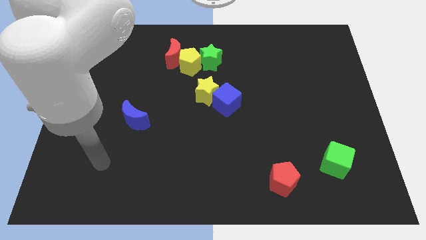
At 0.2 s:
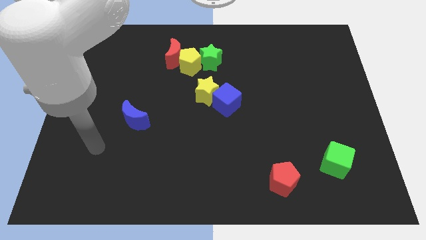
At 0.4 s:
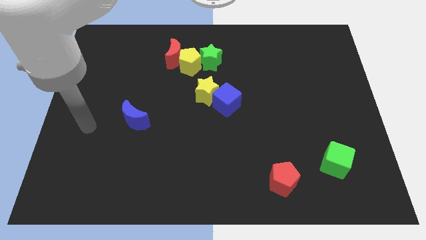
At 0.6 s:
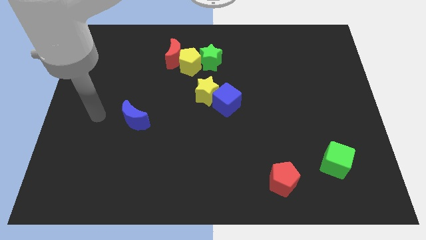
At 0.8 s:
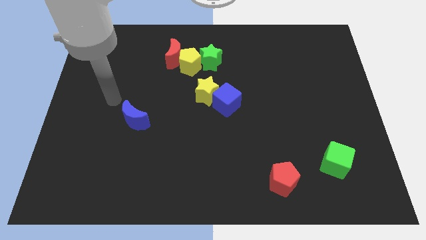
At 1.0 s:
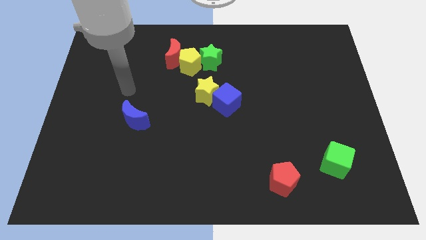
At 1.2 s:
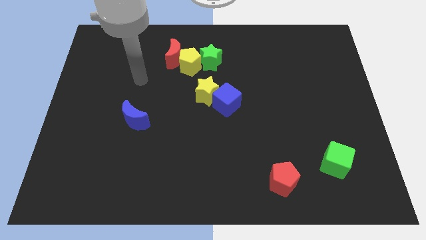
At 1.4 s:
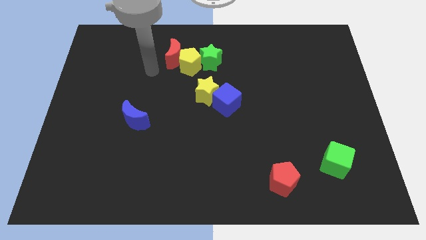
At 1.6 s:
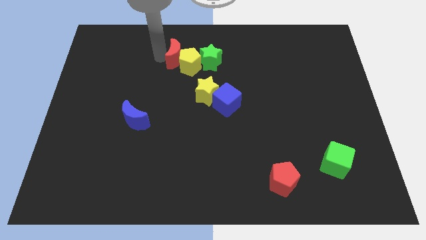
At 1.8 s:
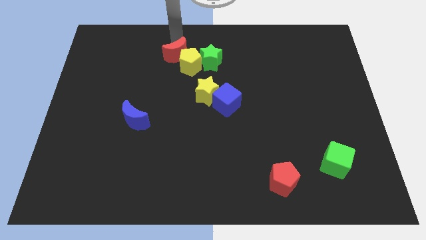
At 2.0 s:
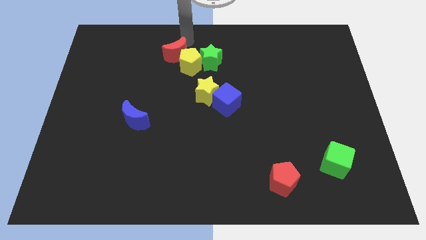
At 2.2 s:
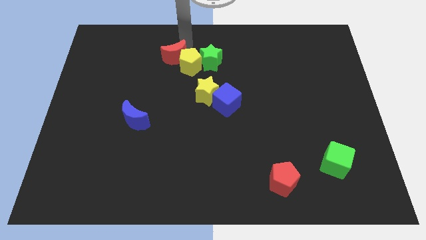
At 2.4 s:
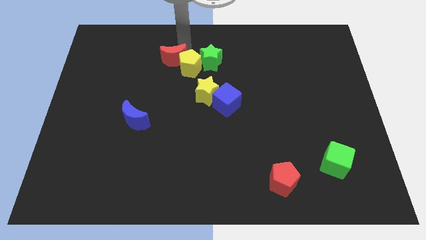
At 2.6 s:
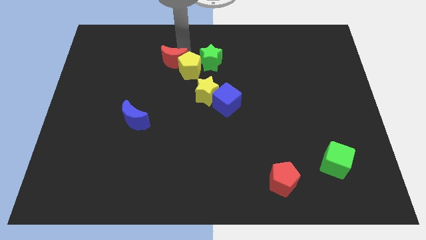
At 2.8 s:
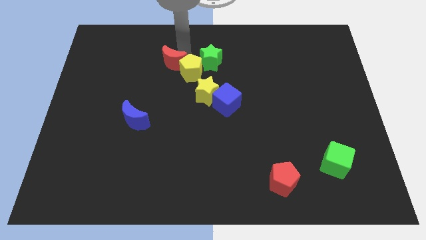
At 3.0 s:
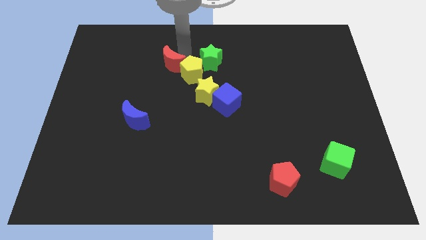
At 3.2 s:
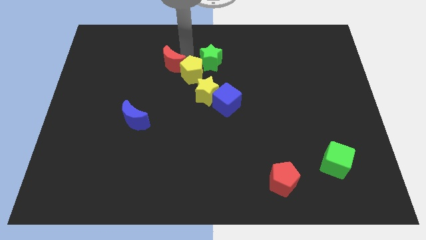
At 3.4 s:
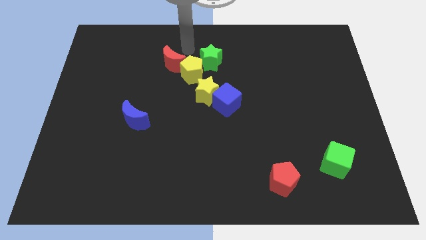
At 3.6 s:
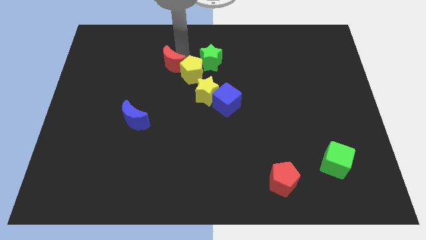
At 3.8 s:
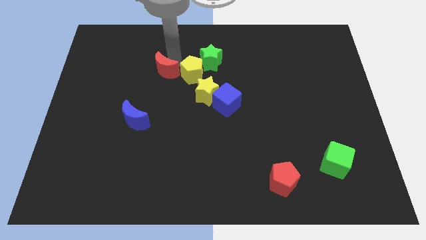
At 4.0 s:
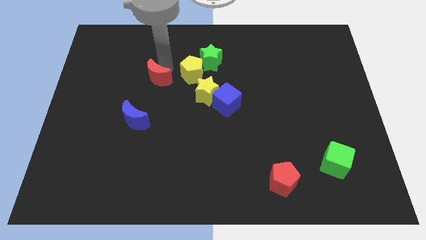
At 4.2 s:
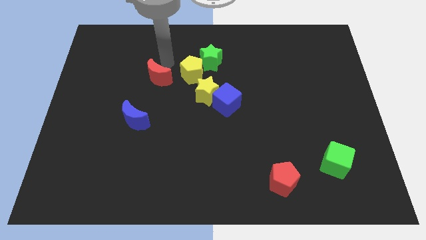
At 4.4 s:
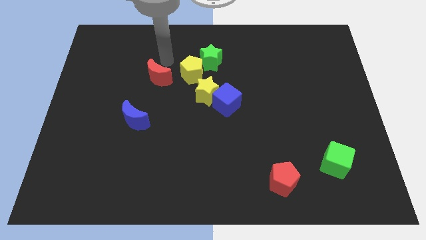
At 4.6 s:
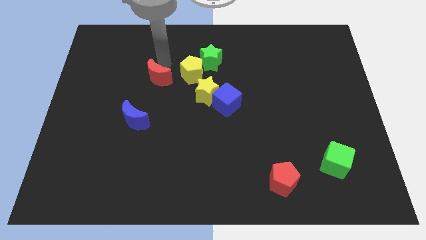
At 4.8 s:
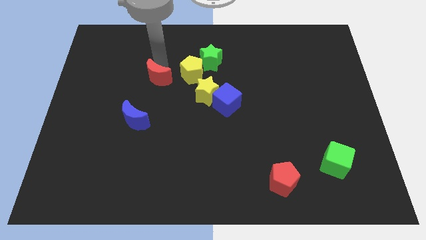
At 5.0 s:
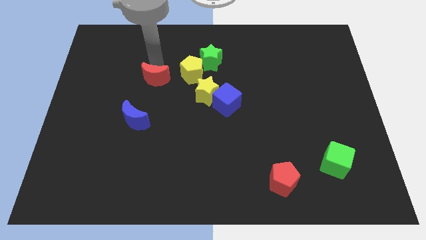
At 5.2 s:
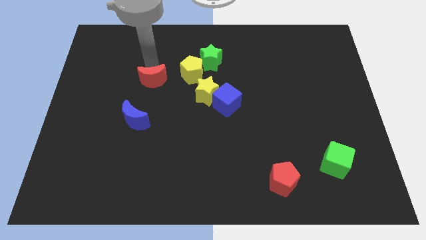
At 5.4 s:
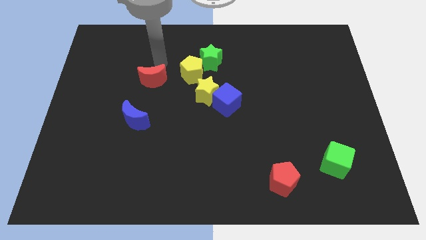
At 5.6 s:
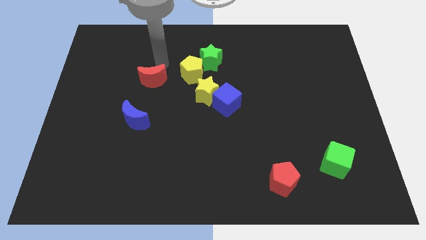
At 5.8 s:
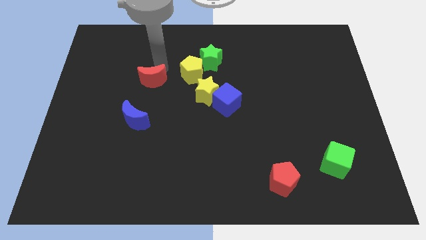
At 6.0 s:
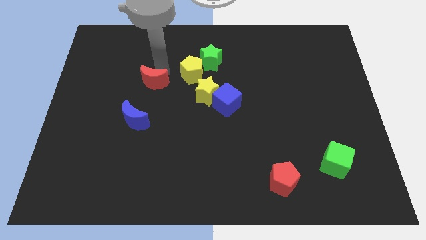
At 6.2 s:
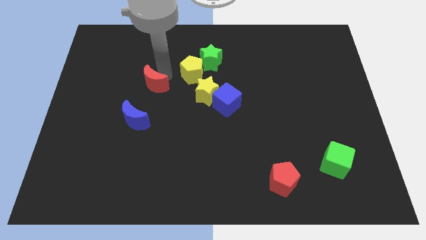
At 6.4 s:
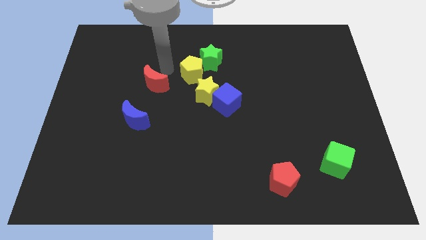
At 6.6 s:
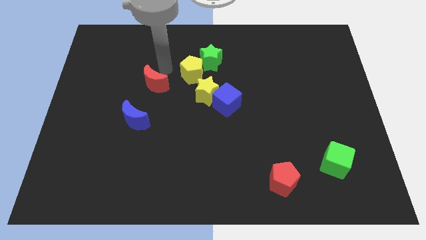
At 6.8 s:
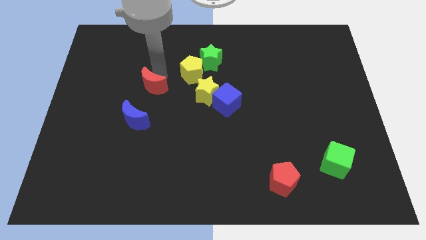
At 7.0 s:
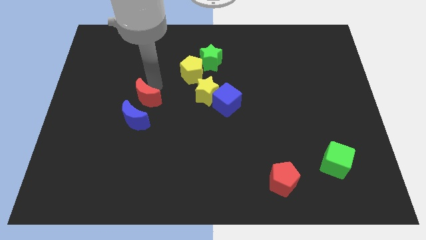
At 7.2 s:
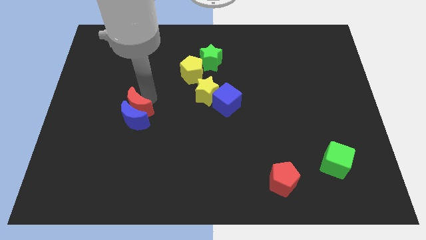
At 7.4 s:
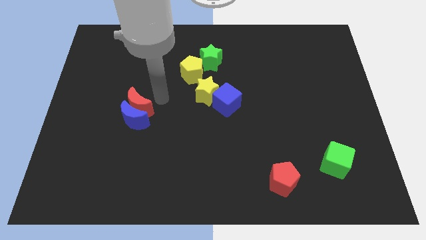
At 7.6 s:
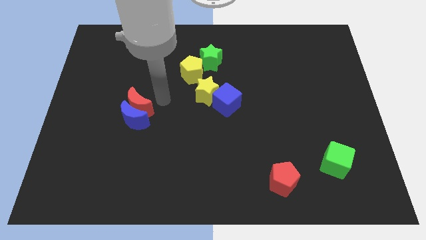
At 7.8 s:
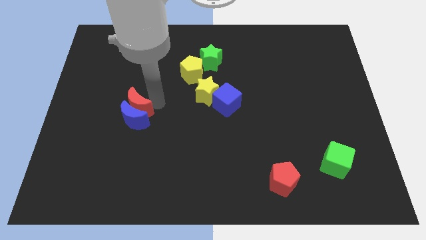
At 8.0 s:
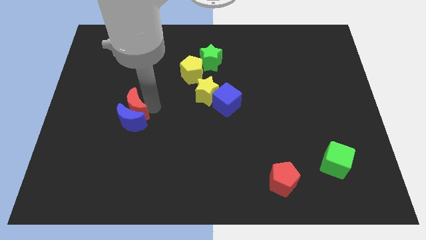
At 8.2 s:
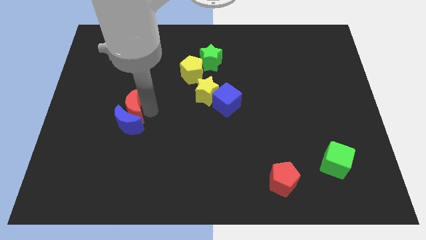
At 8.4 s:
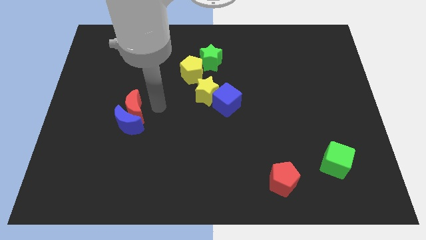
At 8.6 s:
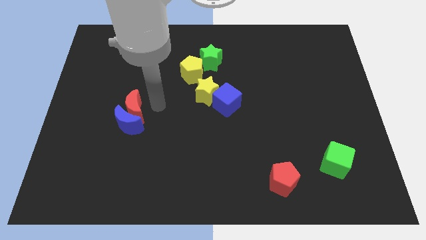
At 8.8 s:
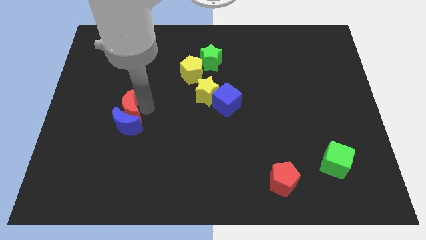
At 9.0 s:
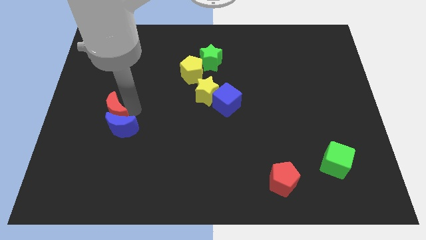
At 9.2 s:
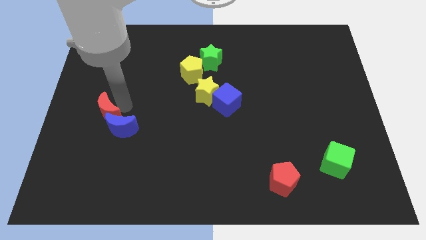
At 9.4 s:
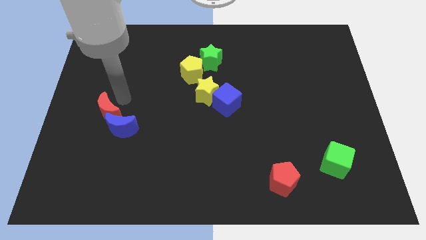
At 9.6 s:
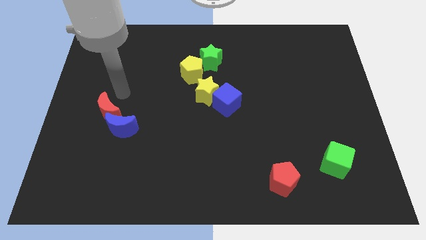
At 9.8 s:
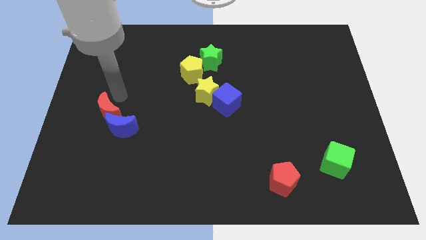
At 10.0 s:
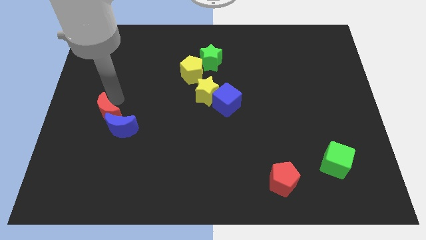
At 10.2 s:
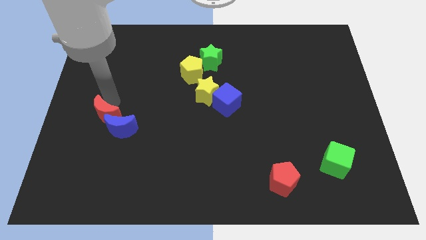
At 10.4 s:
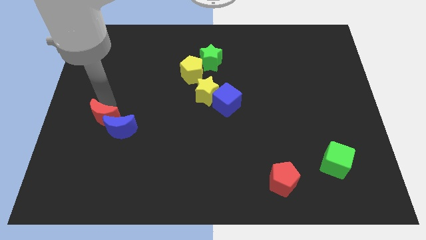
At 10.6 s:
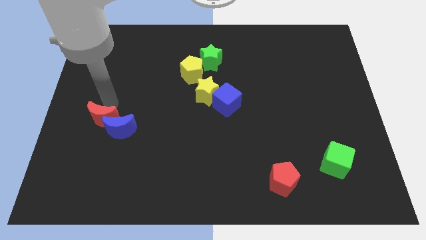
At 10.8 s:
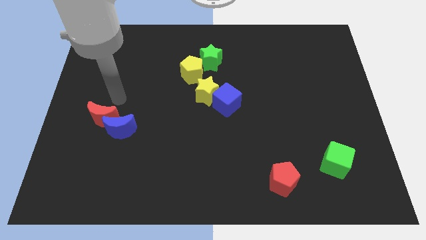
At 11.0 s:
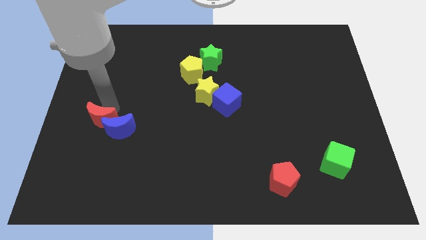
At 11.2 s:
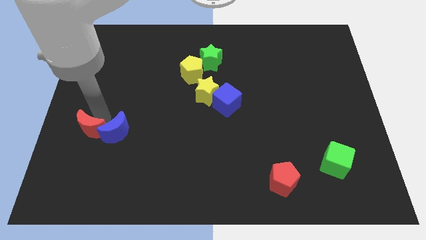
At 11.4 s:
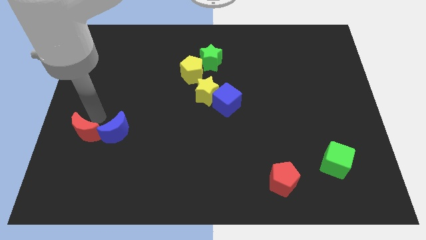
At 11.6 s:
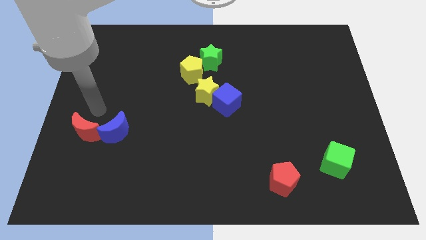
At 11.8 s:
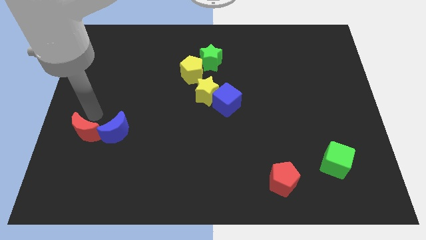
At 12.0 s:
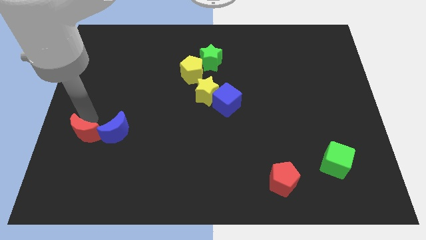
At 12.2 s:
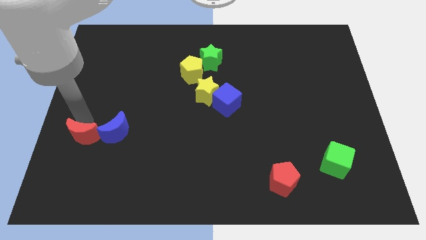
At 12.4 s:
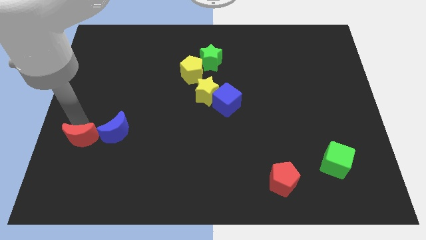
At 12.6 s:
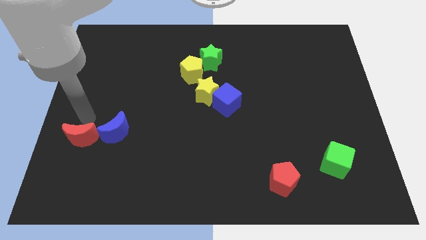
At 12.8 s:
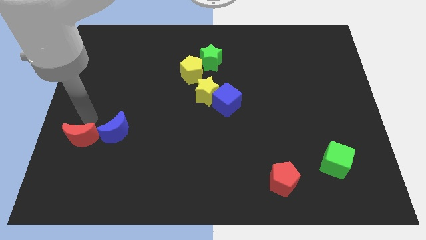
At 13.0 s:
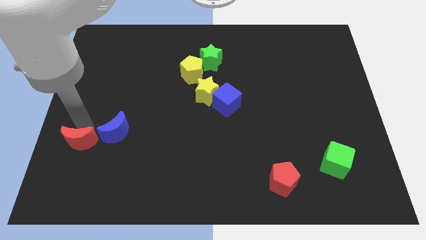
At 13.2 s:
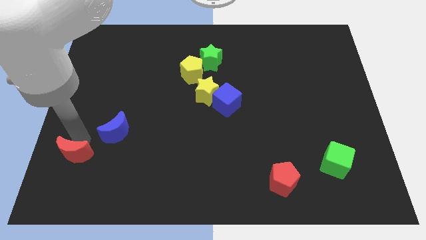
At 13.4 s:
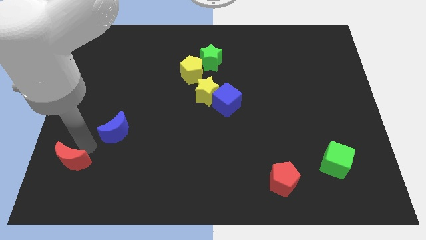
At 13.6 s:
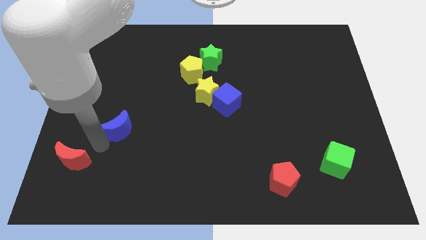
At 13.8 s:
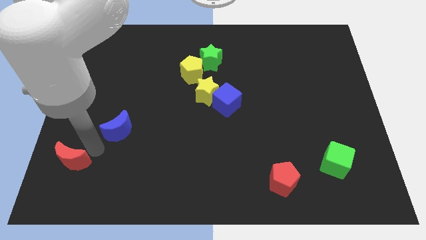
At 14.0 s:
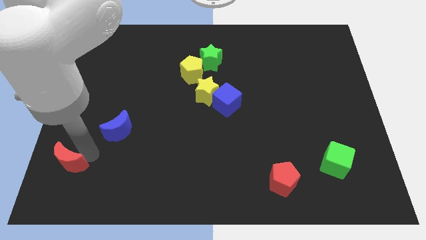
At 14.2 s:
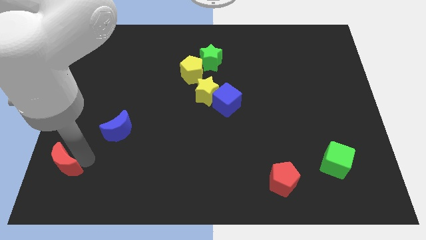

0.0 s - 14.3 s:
slide the red moon to the bottom left of the board
